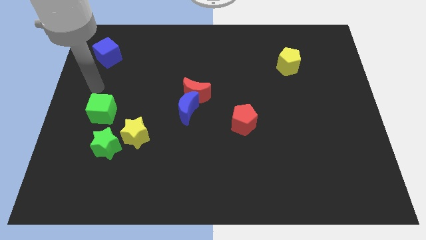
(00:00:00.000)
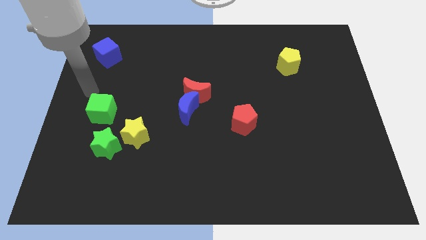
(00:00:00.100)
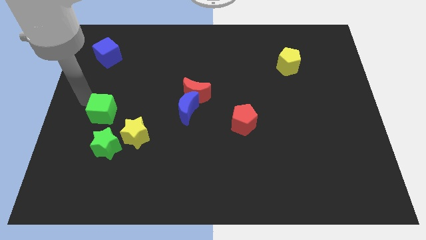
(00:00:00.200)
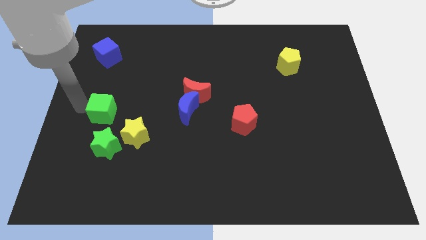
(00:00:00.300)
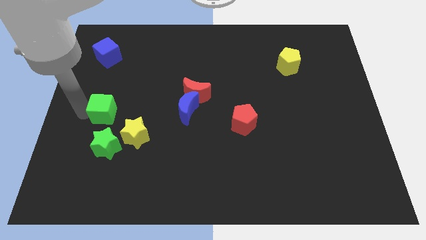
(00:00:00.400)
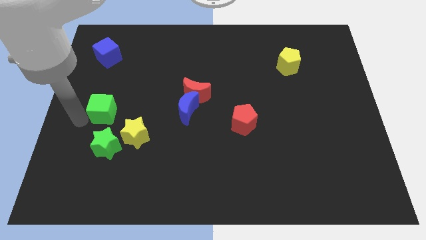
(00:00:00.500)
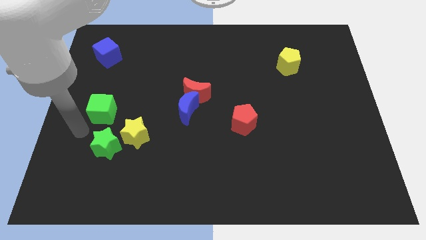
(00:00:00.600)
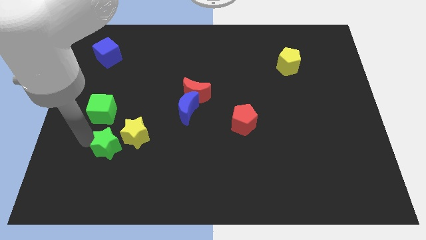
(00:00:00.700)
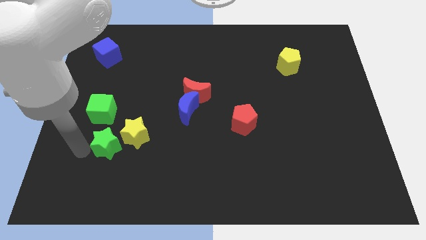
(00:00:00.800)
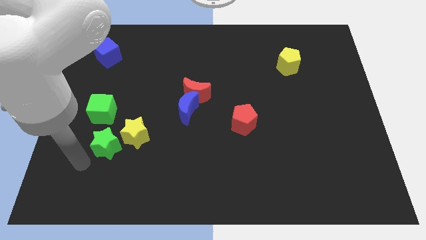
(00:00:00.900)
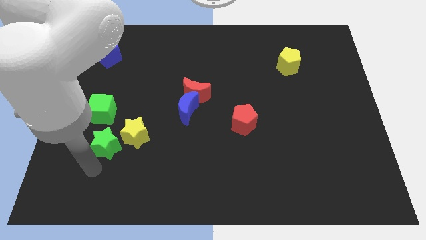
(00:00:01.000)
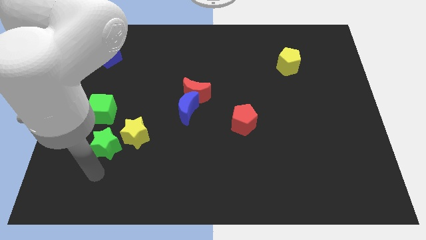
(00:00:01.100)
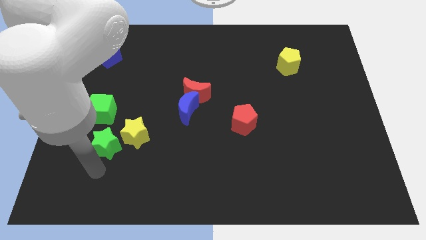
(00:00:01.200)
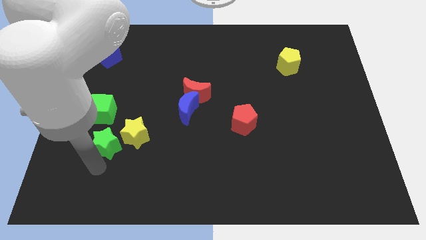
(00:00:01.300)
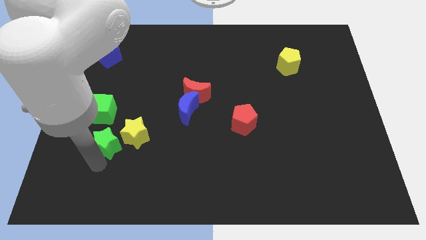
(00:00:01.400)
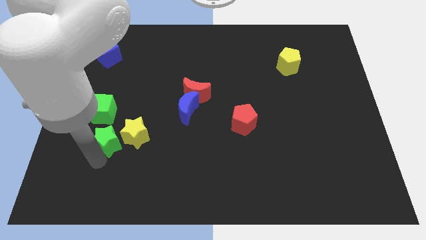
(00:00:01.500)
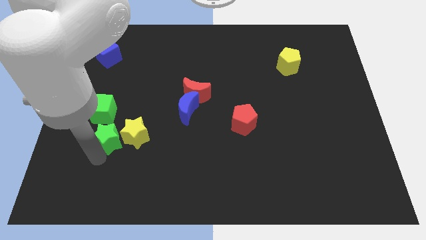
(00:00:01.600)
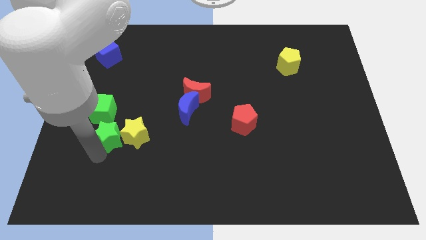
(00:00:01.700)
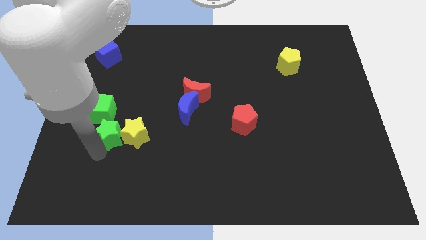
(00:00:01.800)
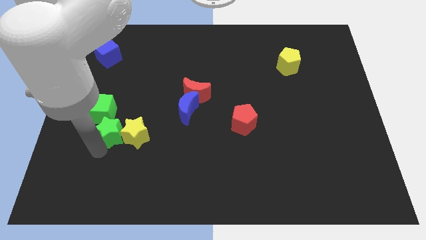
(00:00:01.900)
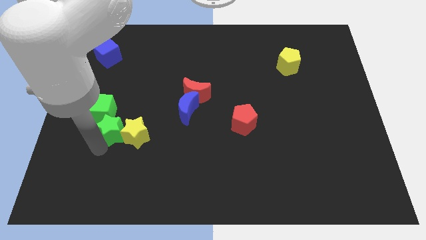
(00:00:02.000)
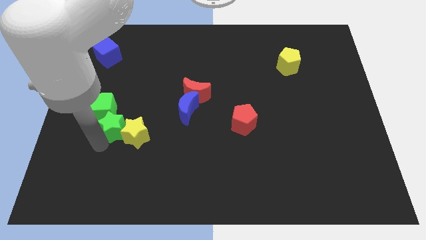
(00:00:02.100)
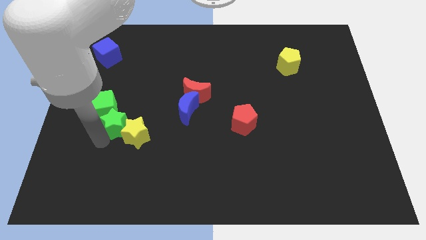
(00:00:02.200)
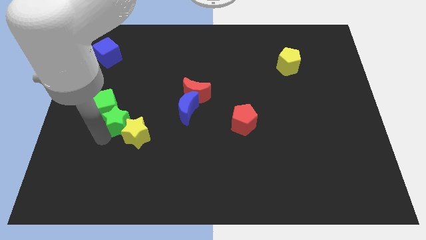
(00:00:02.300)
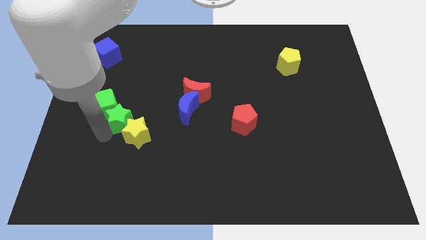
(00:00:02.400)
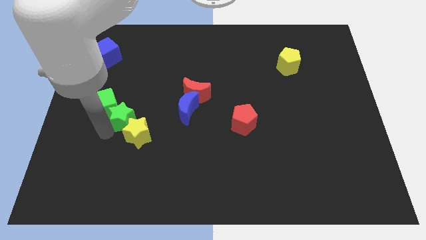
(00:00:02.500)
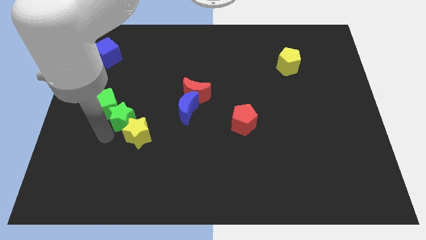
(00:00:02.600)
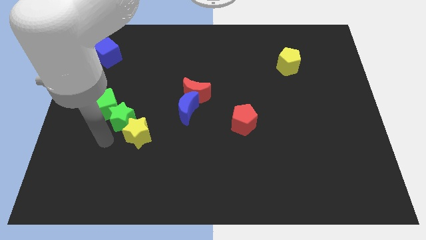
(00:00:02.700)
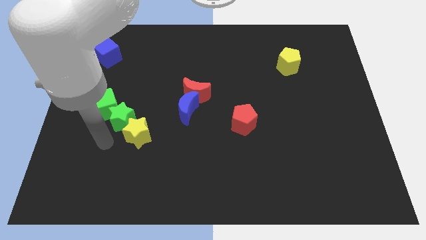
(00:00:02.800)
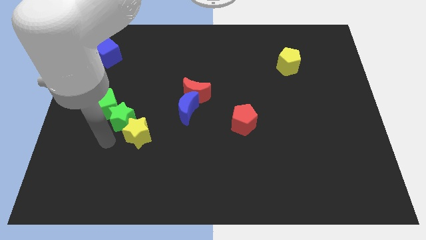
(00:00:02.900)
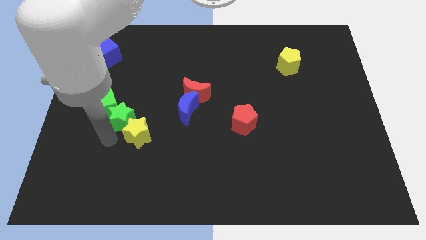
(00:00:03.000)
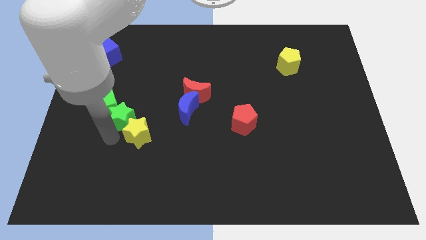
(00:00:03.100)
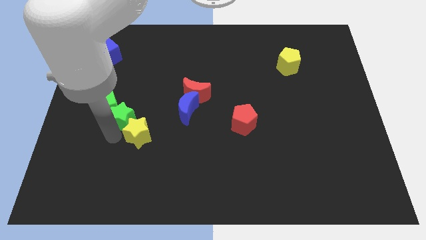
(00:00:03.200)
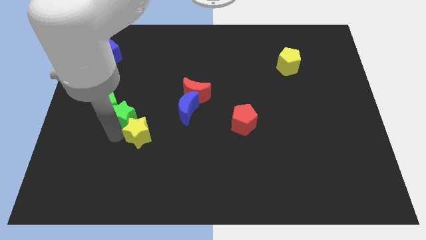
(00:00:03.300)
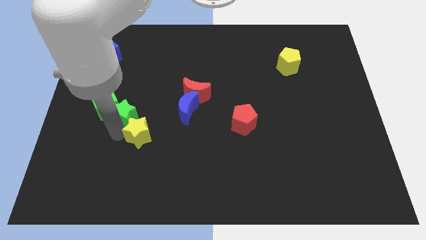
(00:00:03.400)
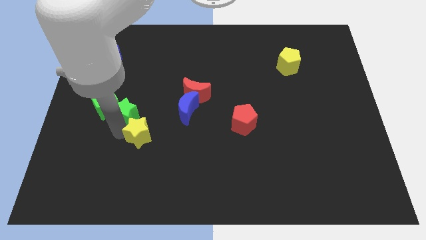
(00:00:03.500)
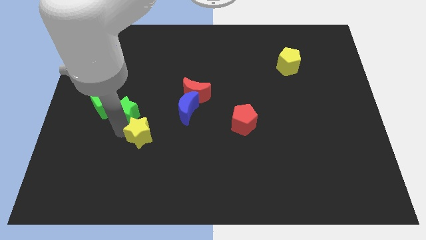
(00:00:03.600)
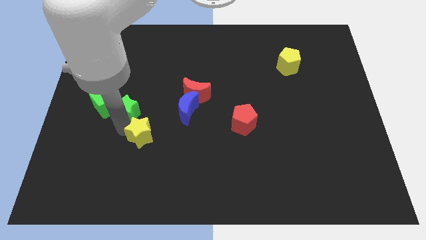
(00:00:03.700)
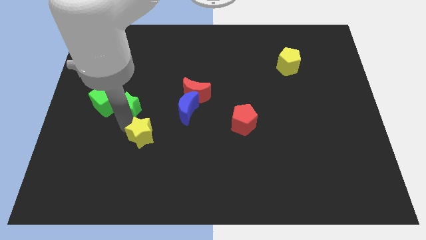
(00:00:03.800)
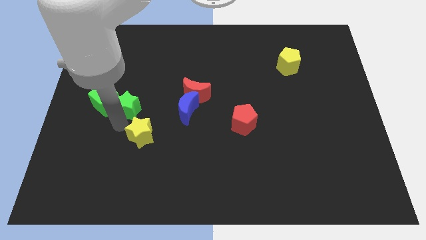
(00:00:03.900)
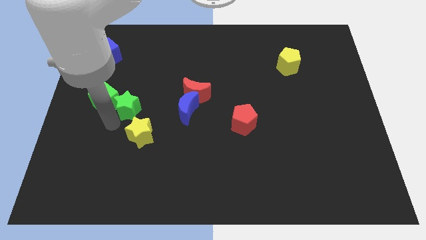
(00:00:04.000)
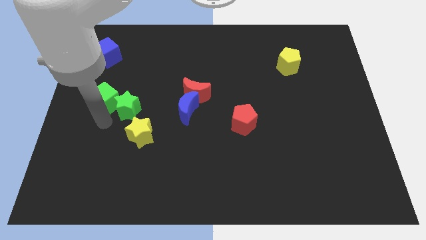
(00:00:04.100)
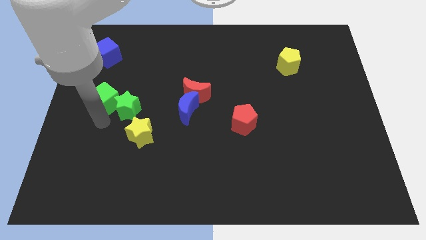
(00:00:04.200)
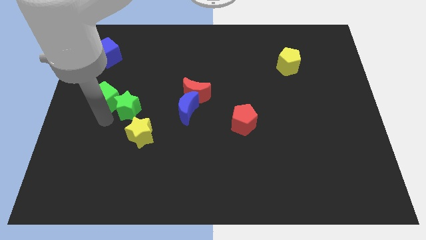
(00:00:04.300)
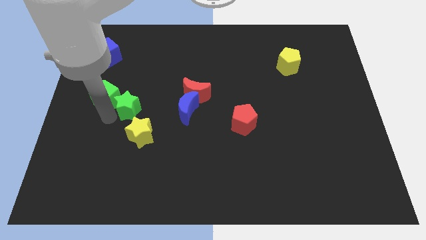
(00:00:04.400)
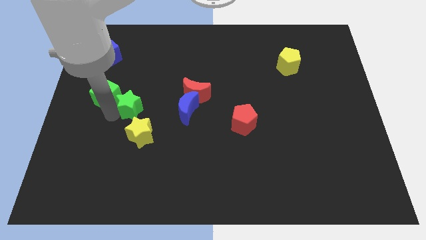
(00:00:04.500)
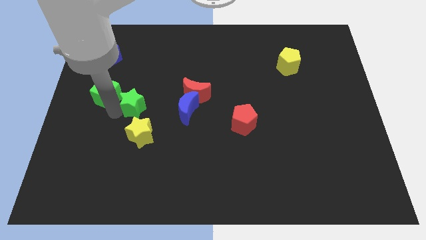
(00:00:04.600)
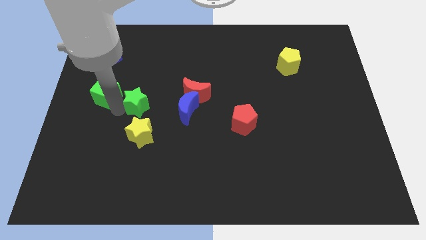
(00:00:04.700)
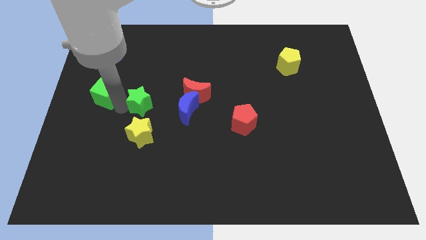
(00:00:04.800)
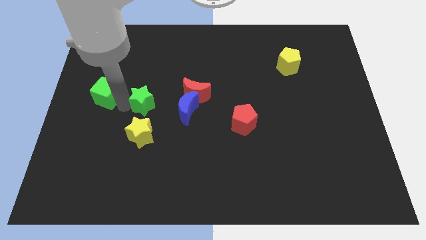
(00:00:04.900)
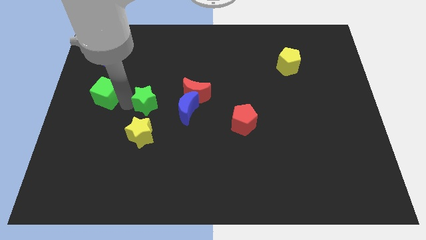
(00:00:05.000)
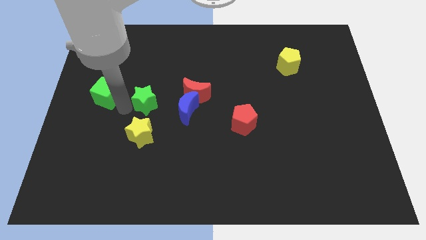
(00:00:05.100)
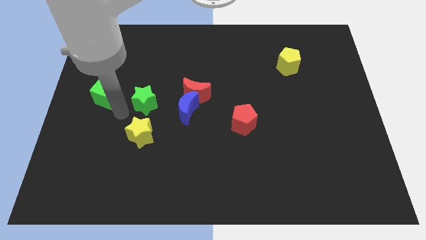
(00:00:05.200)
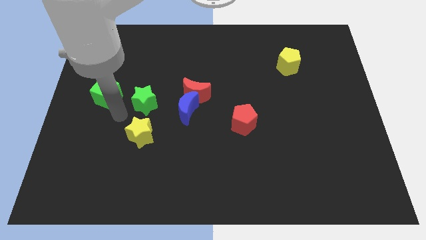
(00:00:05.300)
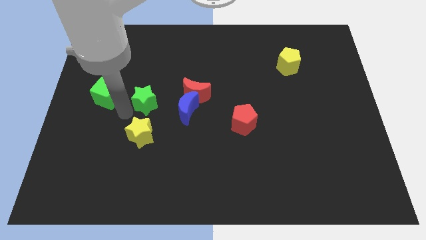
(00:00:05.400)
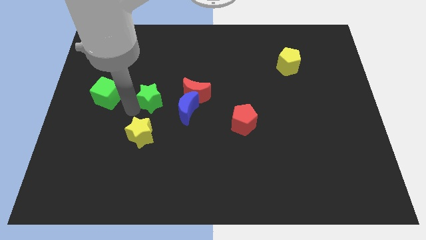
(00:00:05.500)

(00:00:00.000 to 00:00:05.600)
slide the green star to the top left of the blue moon

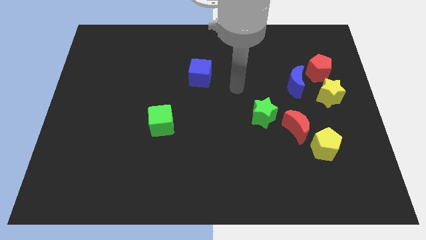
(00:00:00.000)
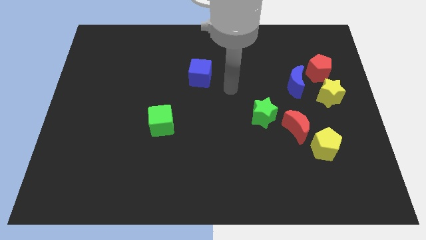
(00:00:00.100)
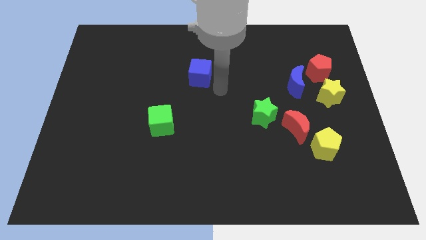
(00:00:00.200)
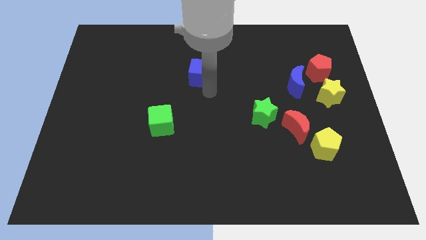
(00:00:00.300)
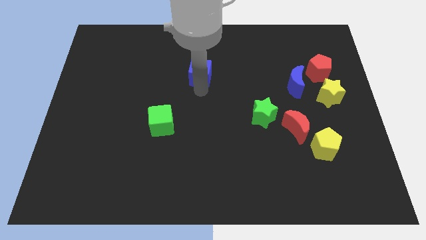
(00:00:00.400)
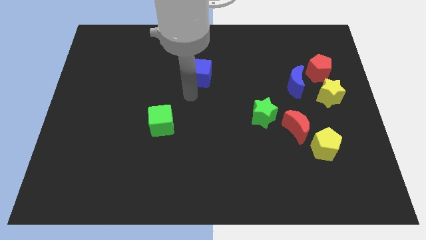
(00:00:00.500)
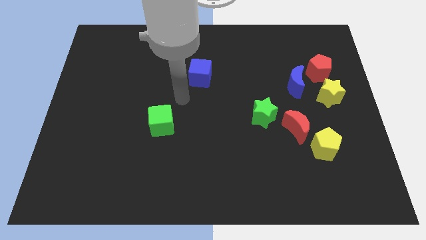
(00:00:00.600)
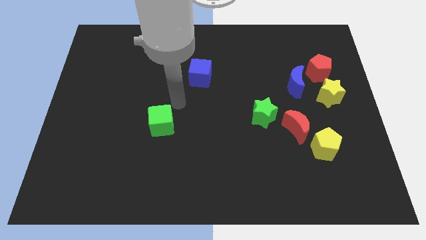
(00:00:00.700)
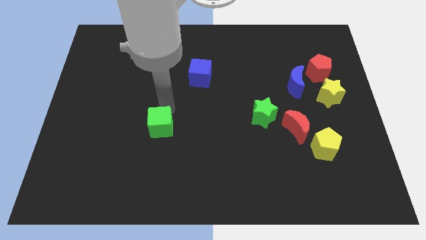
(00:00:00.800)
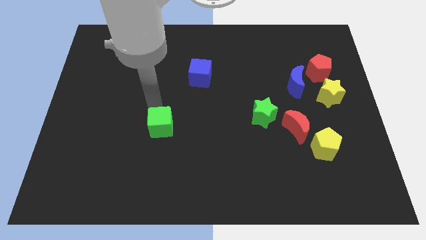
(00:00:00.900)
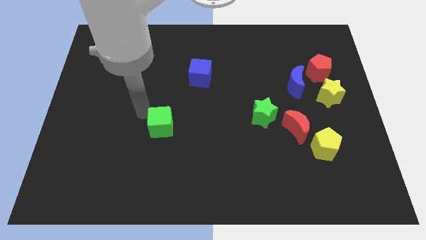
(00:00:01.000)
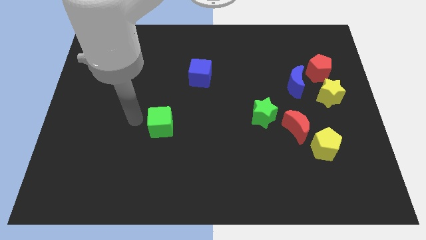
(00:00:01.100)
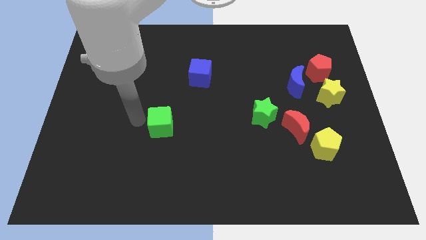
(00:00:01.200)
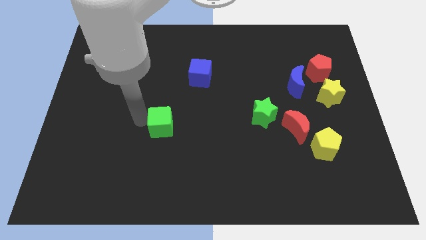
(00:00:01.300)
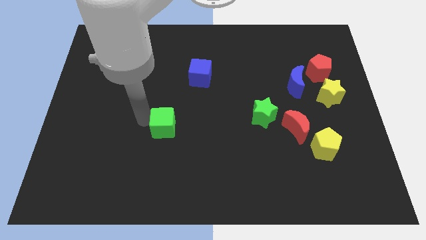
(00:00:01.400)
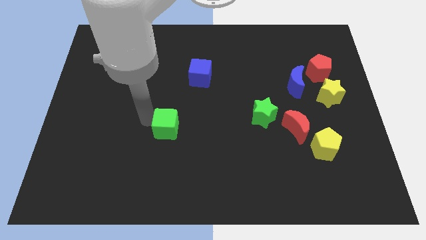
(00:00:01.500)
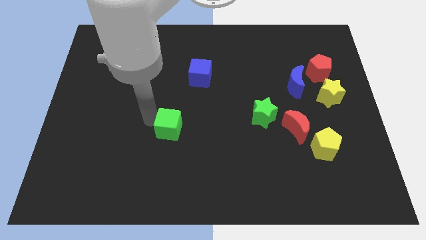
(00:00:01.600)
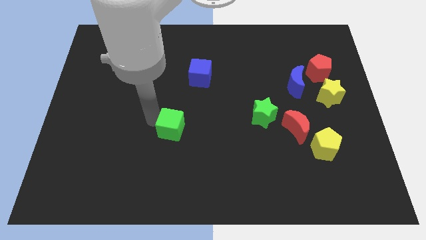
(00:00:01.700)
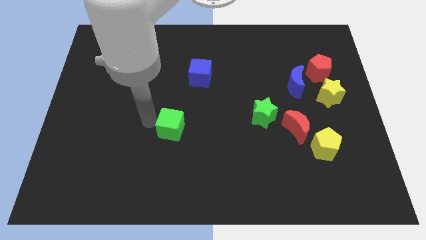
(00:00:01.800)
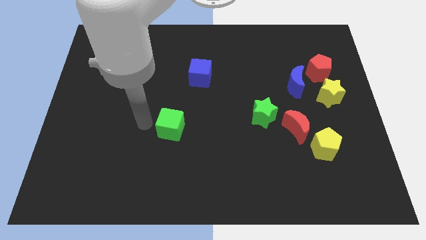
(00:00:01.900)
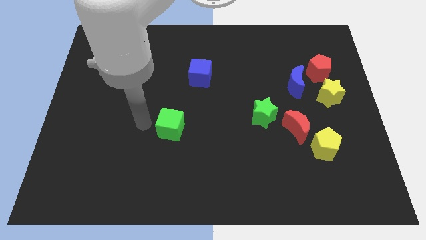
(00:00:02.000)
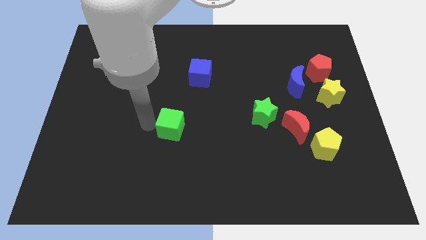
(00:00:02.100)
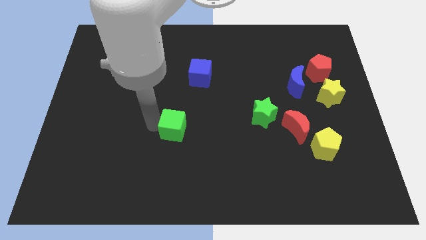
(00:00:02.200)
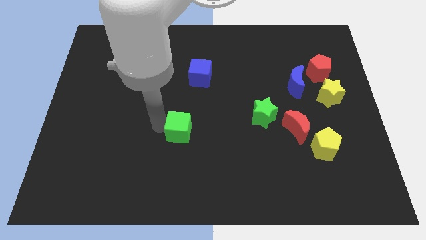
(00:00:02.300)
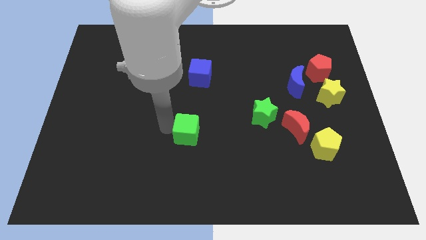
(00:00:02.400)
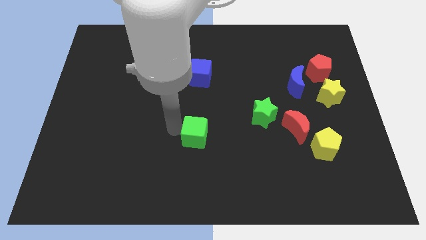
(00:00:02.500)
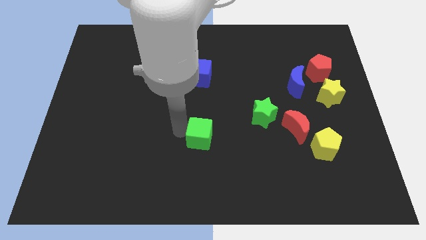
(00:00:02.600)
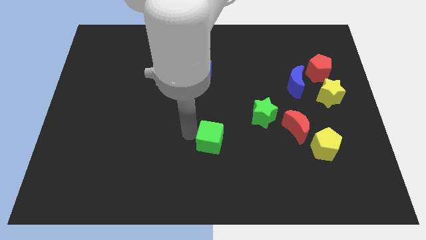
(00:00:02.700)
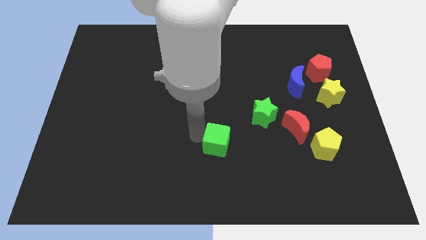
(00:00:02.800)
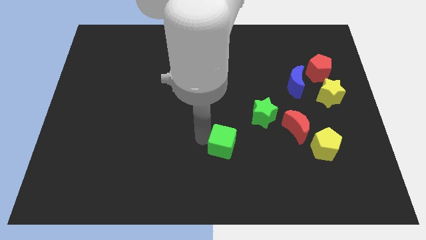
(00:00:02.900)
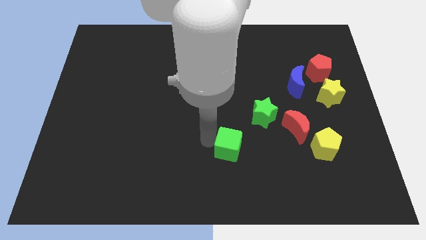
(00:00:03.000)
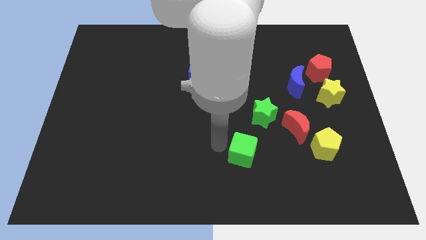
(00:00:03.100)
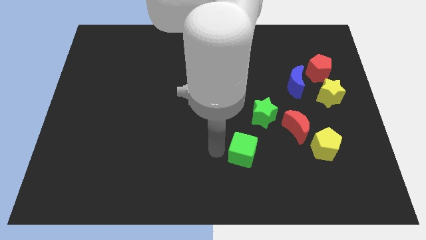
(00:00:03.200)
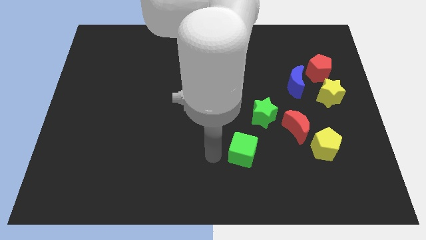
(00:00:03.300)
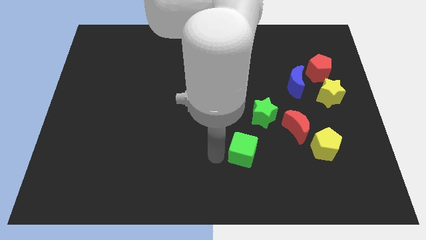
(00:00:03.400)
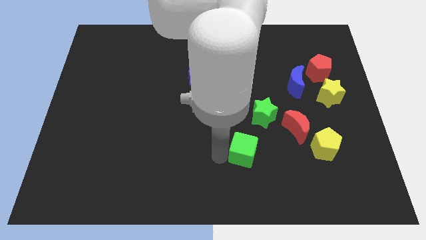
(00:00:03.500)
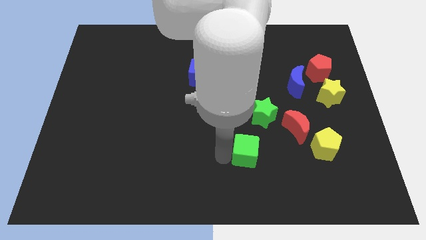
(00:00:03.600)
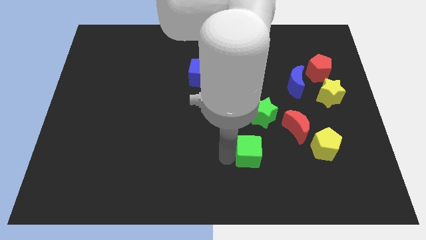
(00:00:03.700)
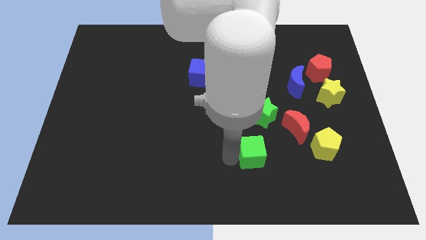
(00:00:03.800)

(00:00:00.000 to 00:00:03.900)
push the green cube diagonally down and to the left of the red moon
